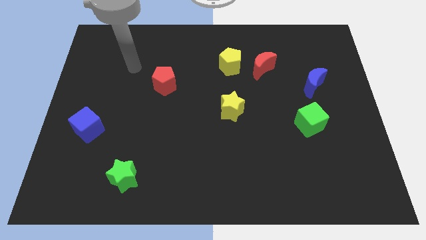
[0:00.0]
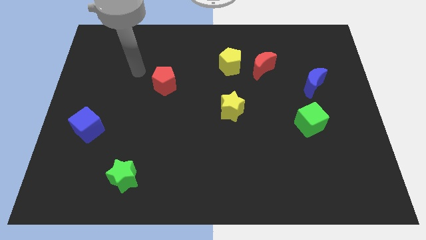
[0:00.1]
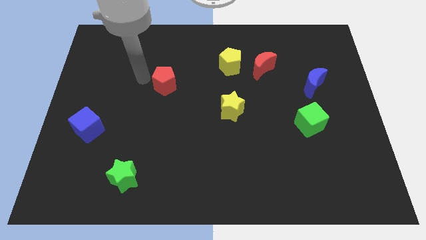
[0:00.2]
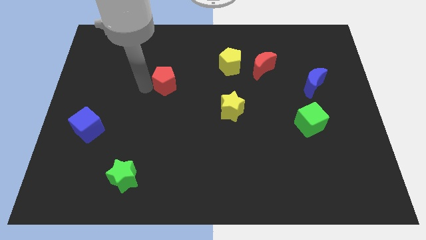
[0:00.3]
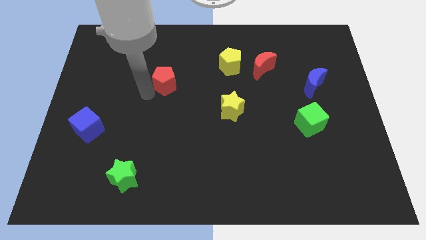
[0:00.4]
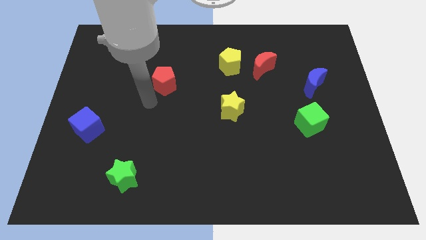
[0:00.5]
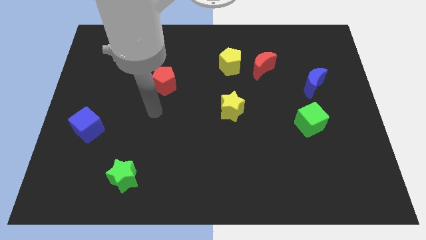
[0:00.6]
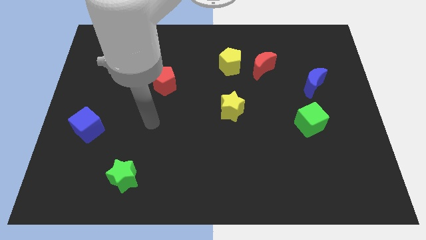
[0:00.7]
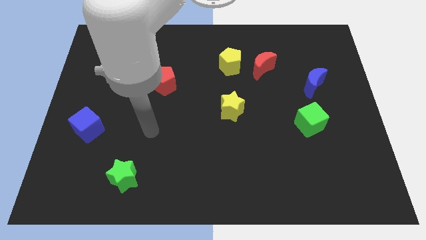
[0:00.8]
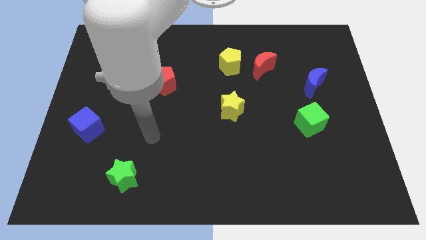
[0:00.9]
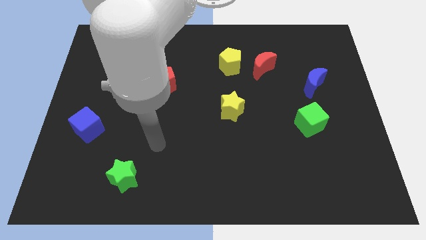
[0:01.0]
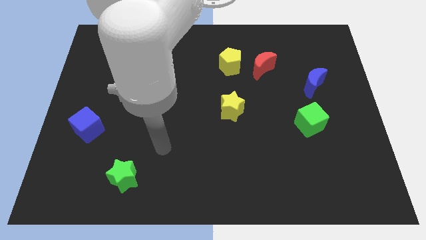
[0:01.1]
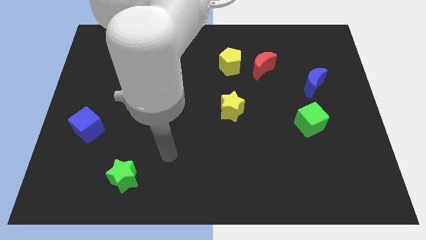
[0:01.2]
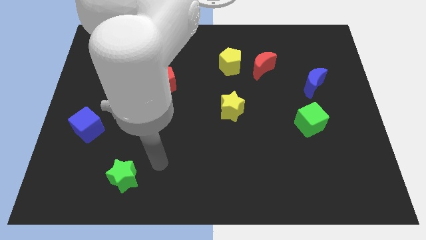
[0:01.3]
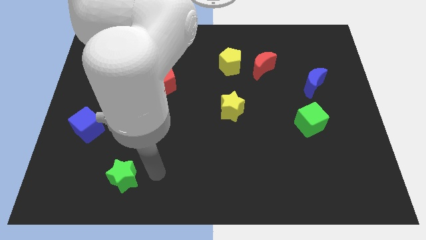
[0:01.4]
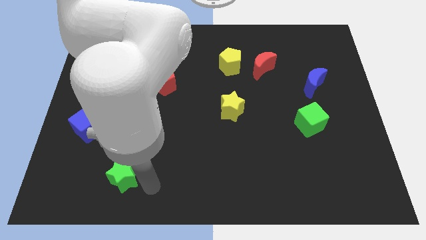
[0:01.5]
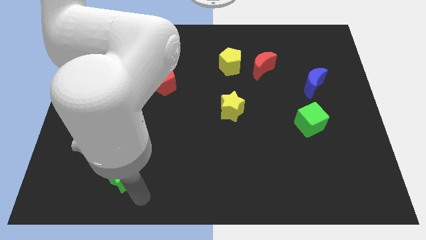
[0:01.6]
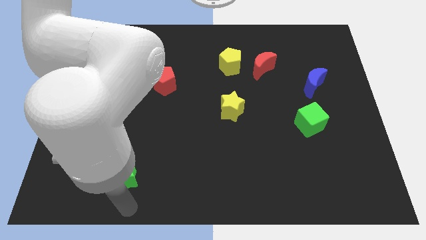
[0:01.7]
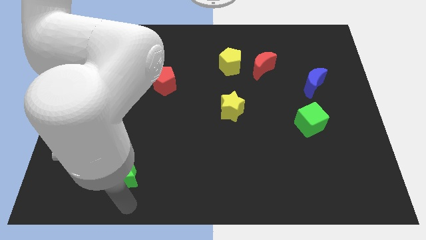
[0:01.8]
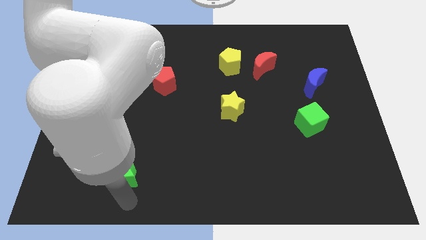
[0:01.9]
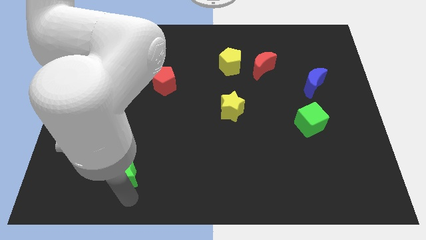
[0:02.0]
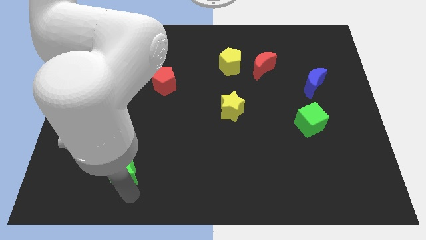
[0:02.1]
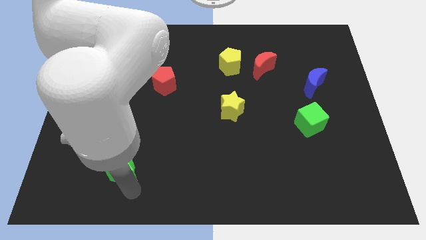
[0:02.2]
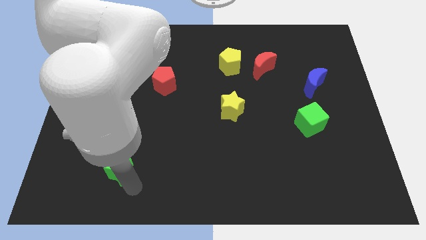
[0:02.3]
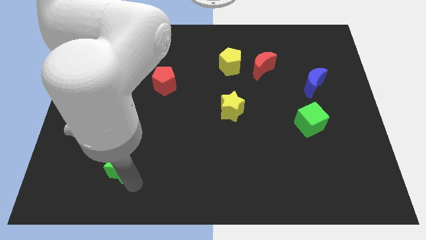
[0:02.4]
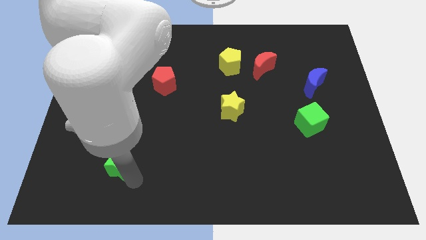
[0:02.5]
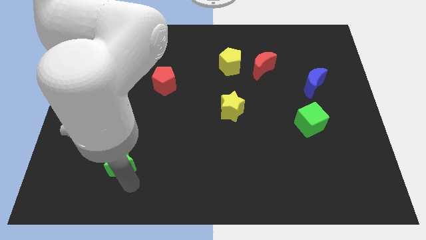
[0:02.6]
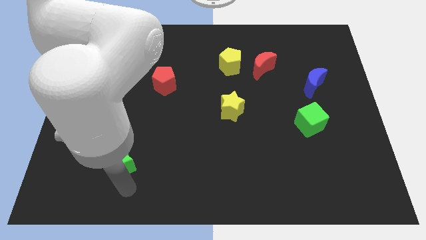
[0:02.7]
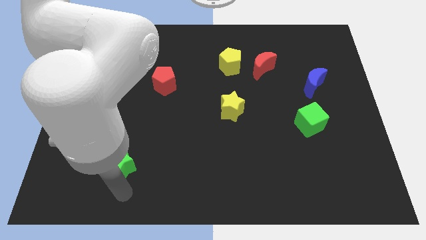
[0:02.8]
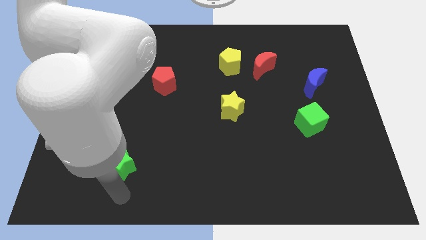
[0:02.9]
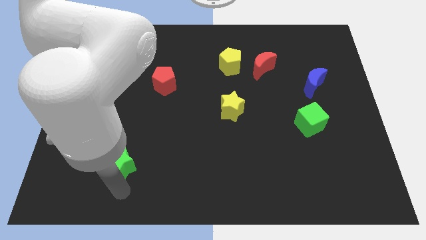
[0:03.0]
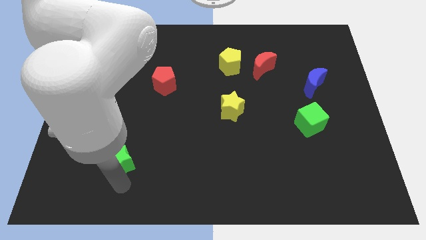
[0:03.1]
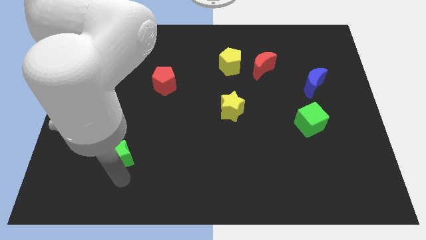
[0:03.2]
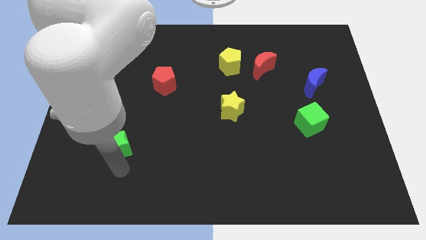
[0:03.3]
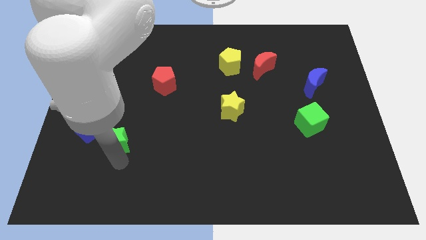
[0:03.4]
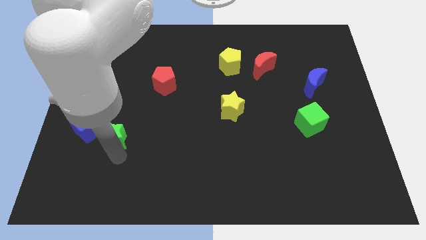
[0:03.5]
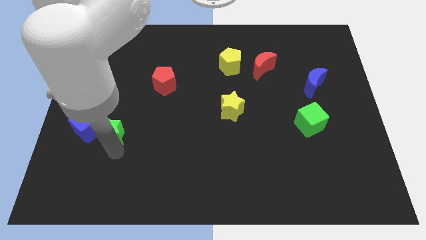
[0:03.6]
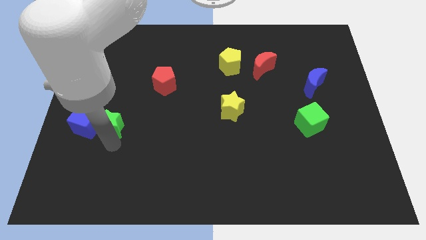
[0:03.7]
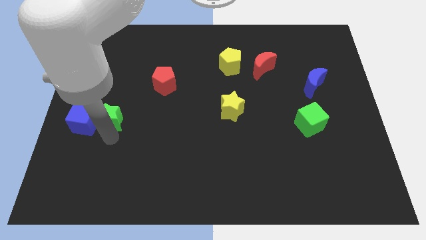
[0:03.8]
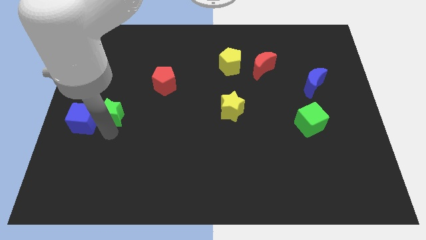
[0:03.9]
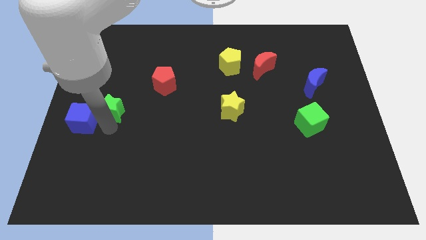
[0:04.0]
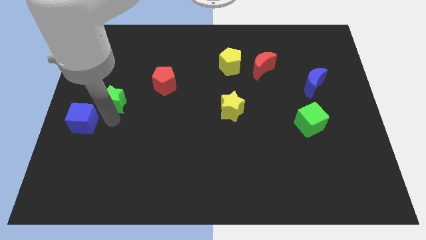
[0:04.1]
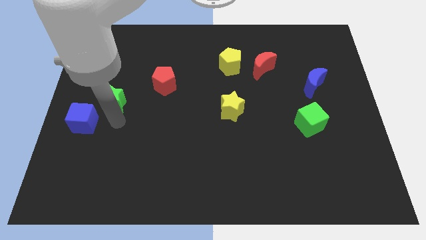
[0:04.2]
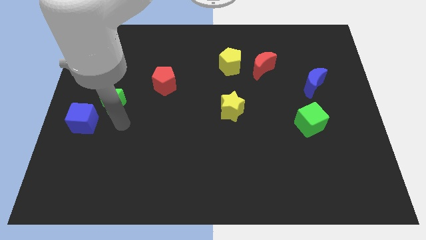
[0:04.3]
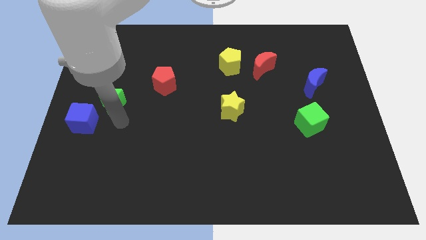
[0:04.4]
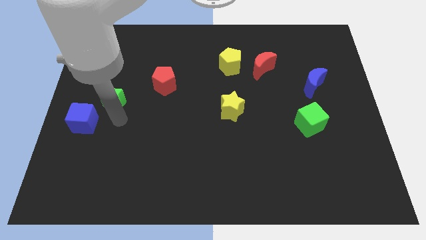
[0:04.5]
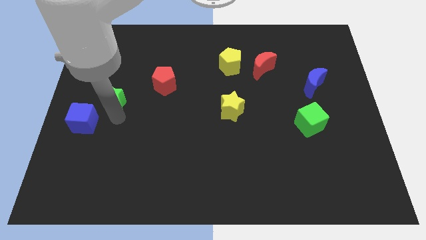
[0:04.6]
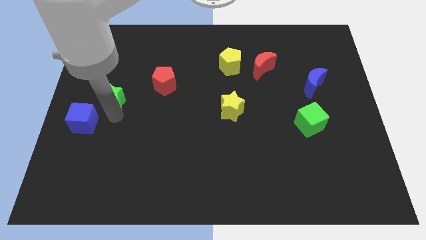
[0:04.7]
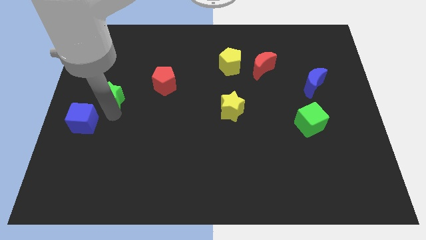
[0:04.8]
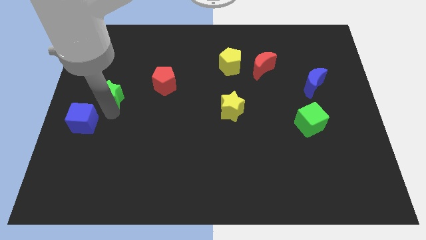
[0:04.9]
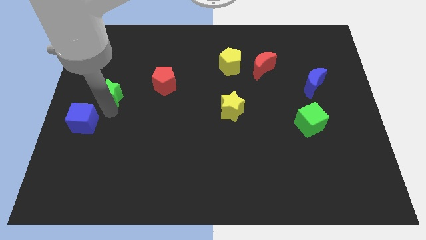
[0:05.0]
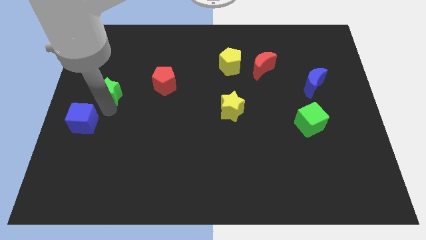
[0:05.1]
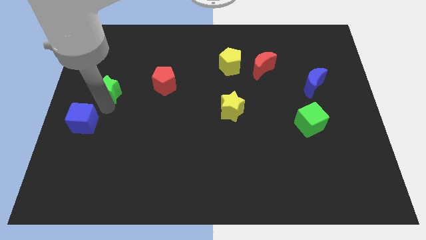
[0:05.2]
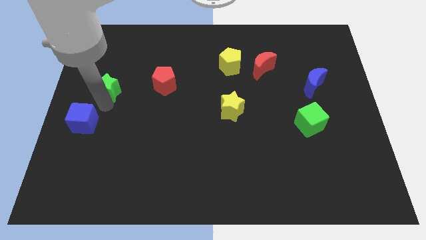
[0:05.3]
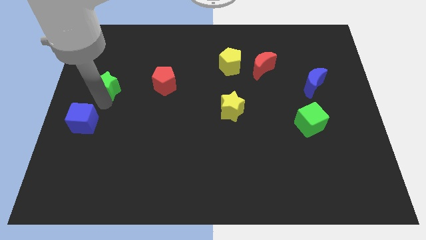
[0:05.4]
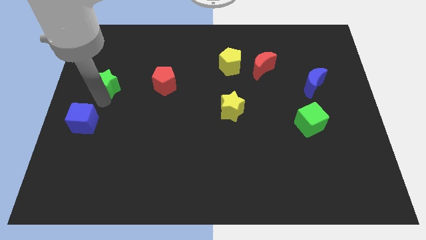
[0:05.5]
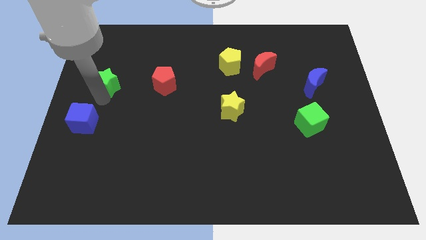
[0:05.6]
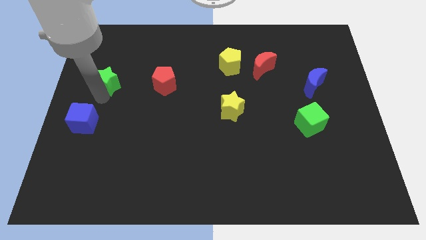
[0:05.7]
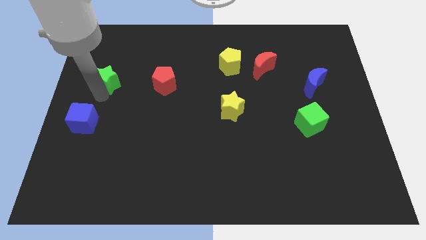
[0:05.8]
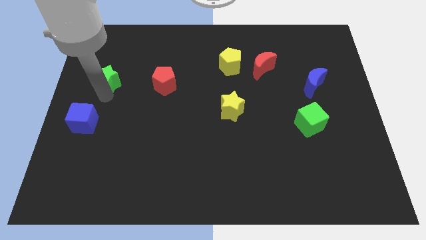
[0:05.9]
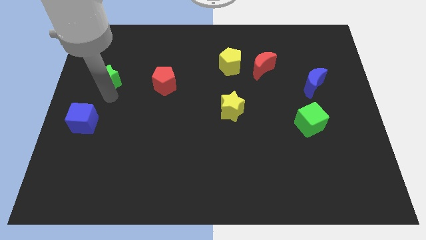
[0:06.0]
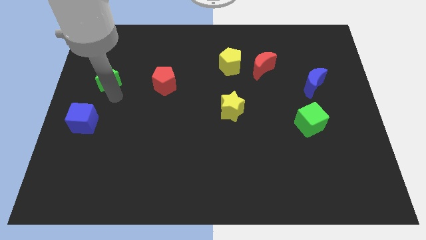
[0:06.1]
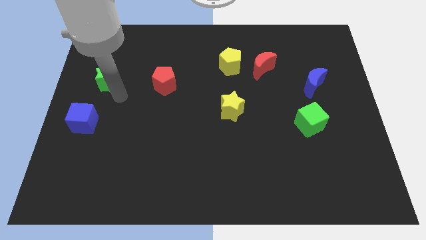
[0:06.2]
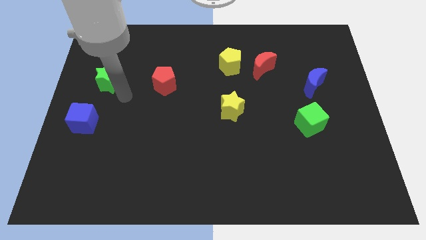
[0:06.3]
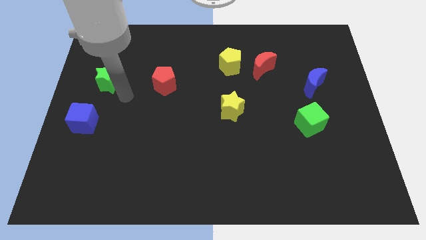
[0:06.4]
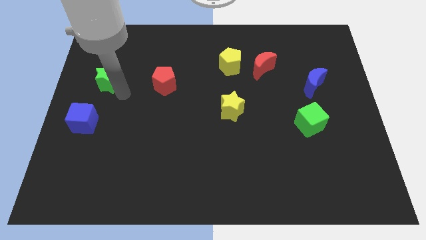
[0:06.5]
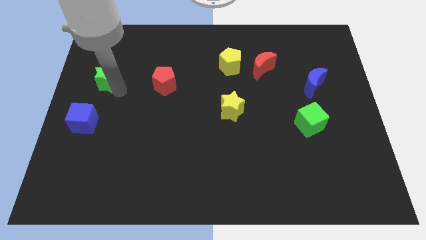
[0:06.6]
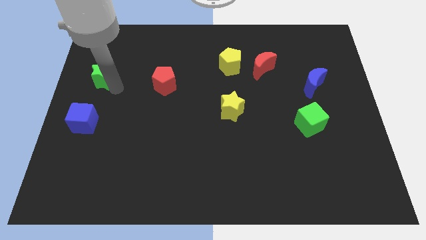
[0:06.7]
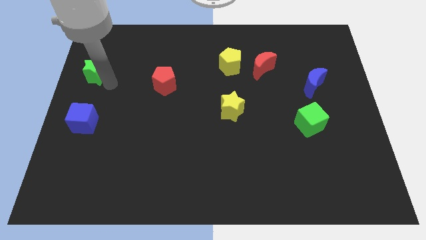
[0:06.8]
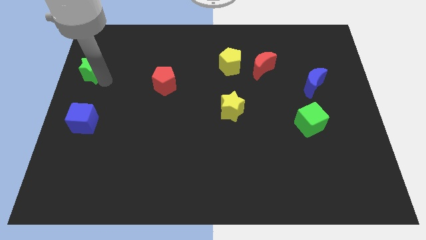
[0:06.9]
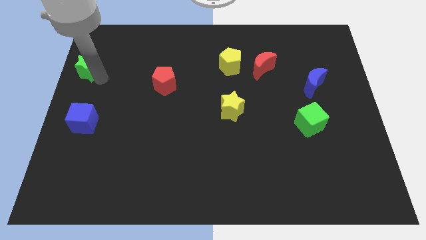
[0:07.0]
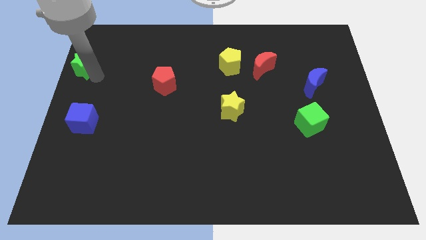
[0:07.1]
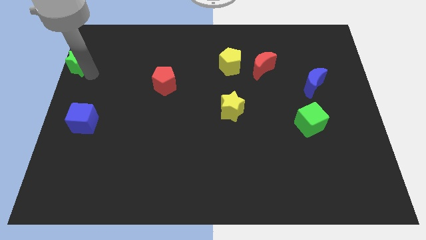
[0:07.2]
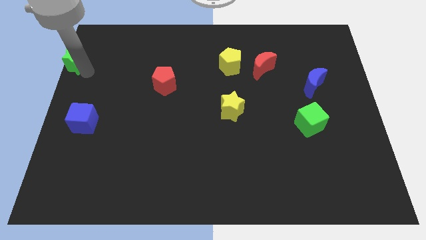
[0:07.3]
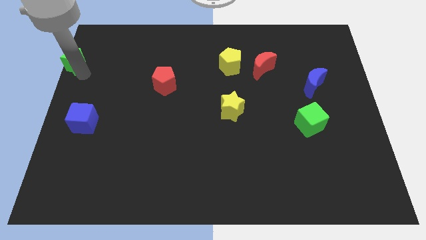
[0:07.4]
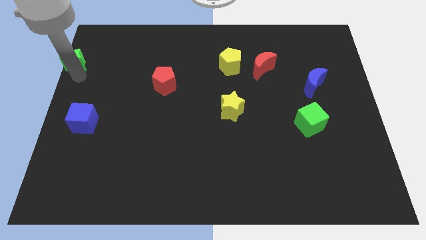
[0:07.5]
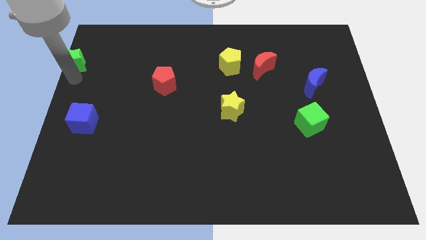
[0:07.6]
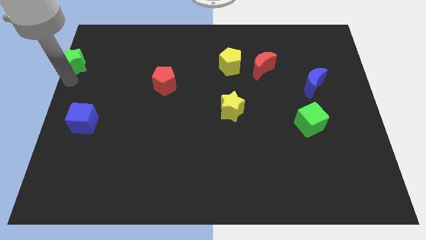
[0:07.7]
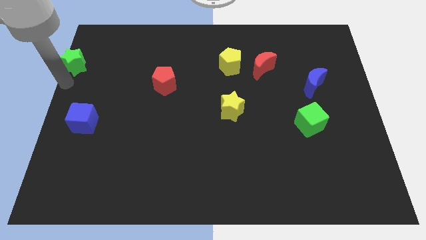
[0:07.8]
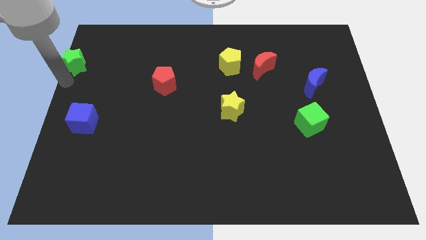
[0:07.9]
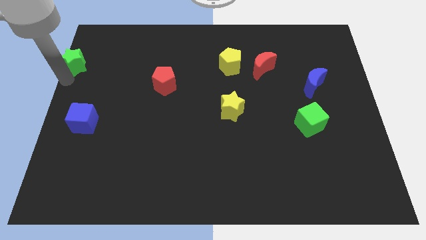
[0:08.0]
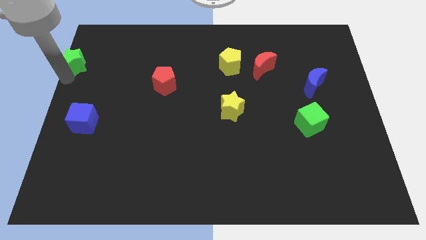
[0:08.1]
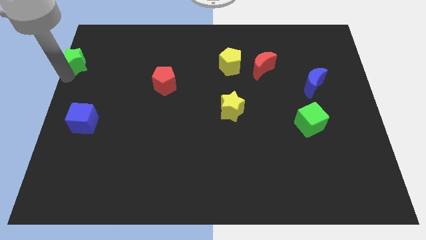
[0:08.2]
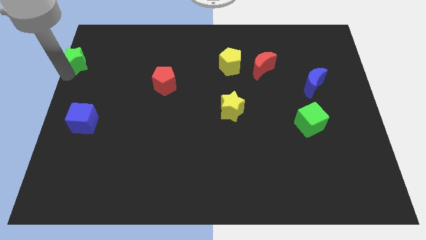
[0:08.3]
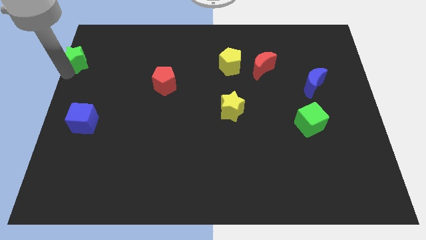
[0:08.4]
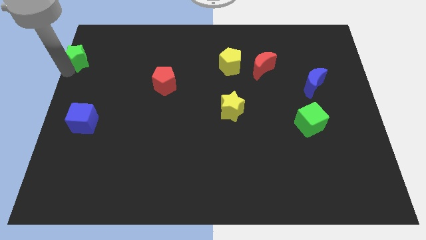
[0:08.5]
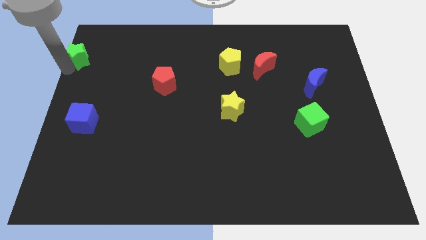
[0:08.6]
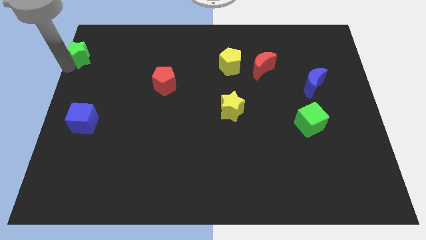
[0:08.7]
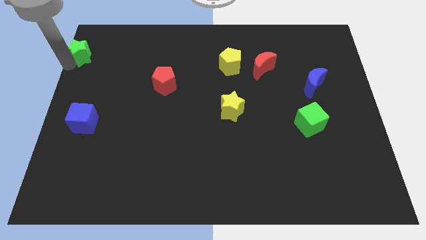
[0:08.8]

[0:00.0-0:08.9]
slide the green star to the upper left corner
